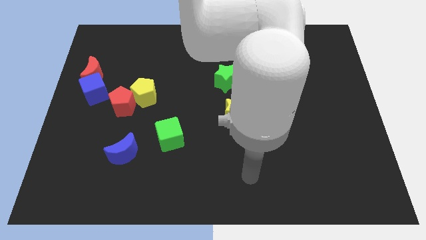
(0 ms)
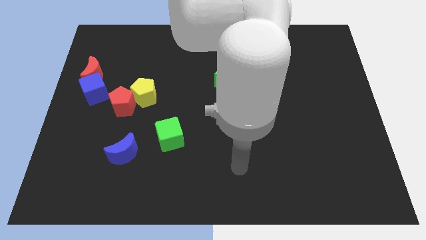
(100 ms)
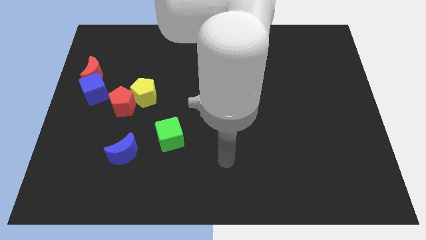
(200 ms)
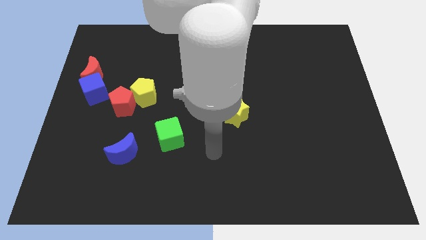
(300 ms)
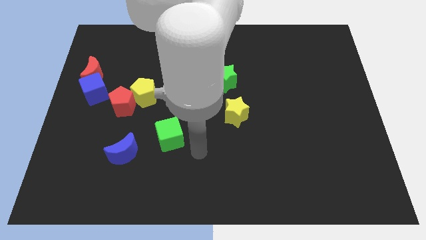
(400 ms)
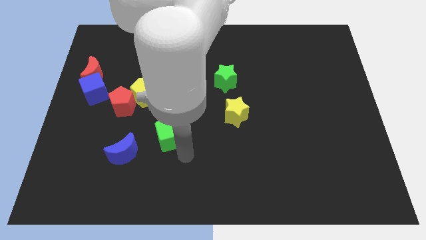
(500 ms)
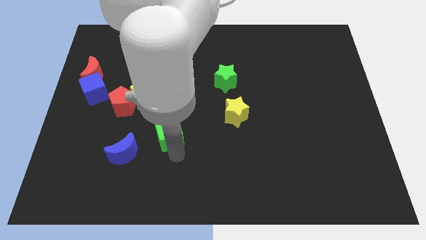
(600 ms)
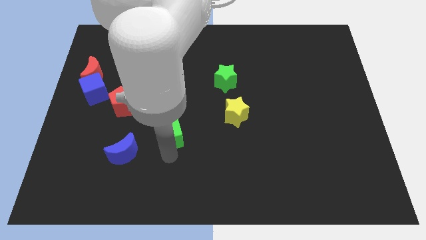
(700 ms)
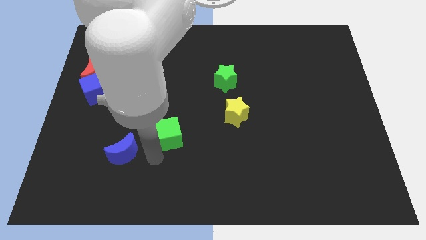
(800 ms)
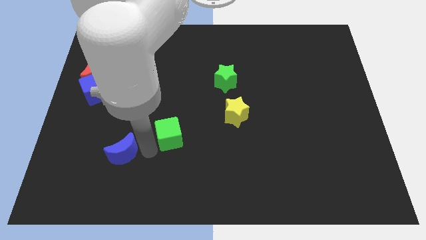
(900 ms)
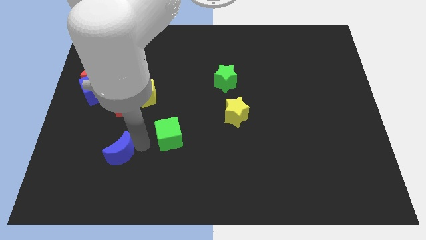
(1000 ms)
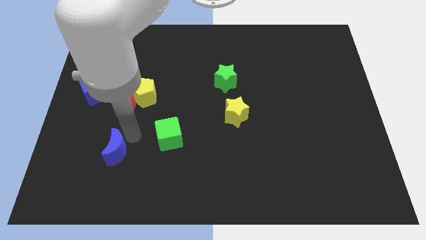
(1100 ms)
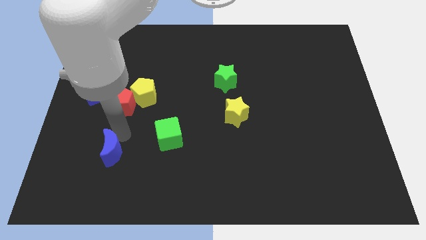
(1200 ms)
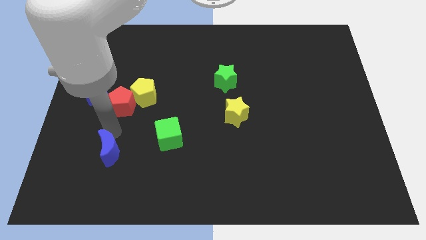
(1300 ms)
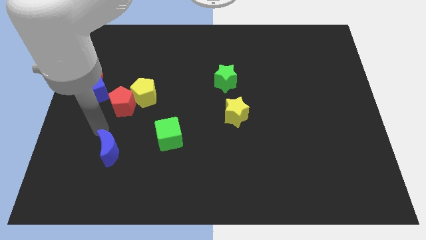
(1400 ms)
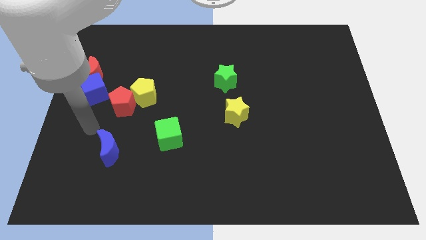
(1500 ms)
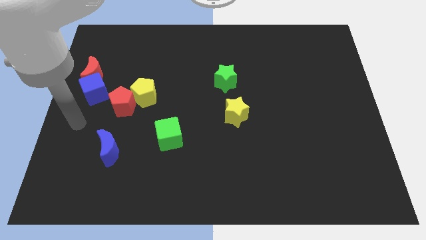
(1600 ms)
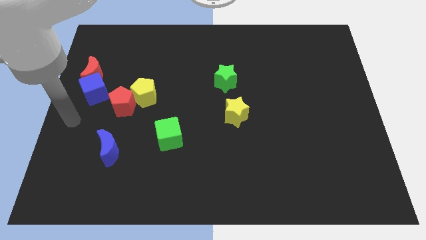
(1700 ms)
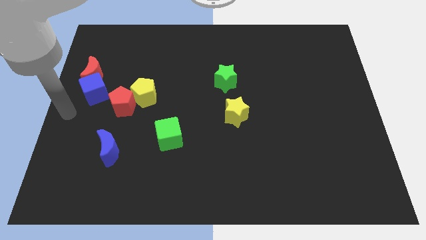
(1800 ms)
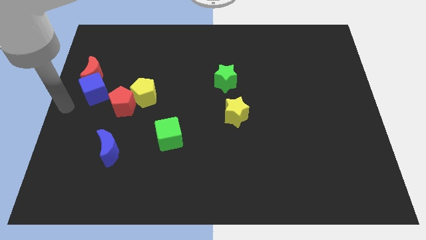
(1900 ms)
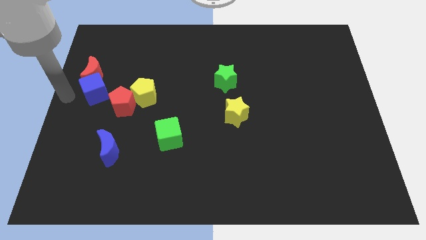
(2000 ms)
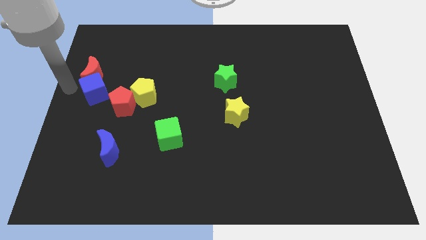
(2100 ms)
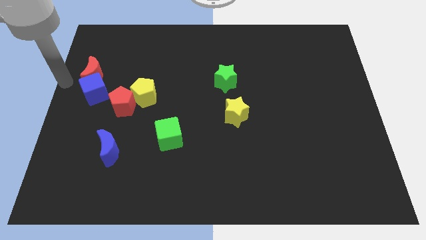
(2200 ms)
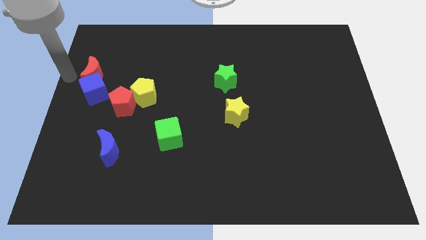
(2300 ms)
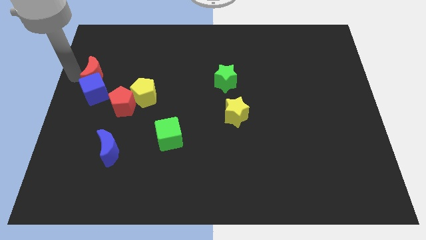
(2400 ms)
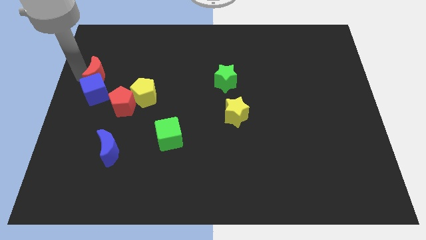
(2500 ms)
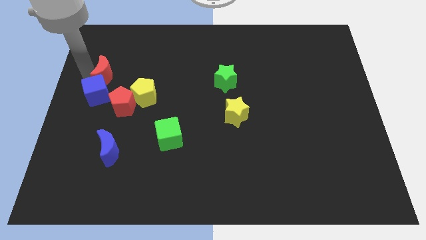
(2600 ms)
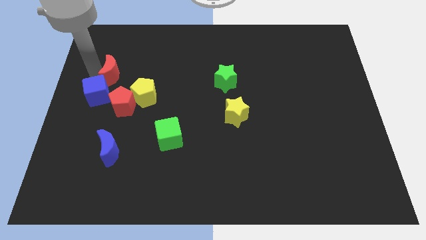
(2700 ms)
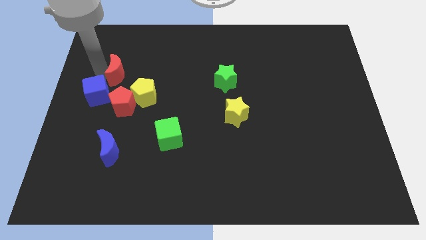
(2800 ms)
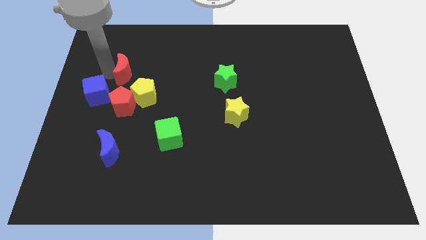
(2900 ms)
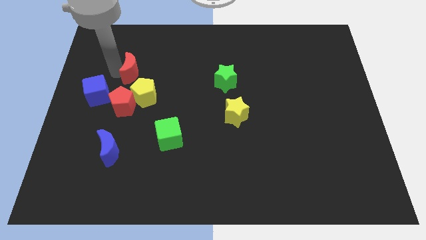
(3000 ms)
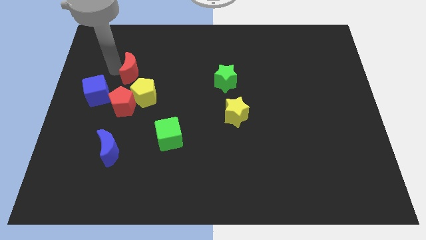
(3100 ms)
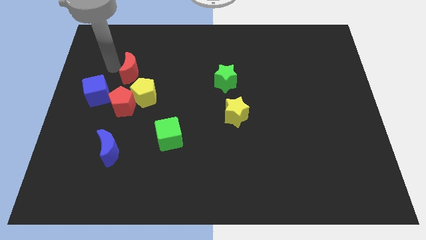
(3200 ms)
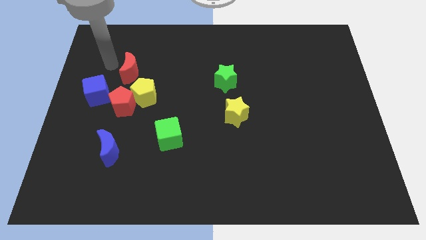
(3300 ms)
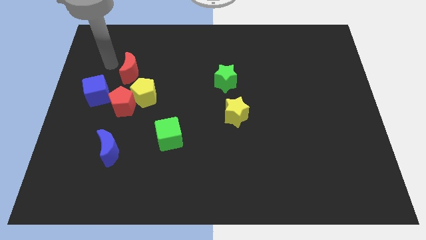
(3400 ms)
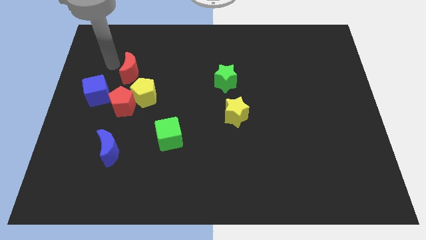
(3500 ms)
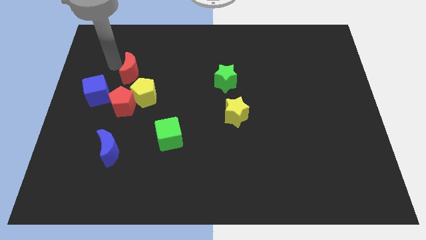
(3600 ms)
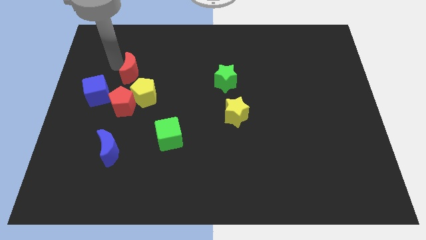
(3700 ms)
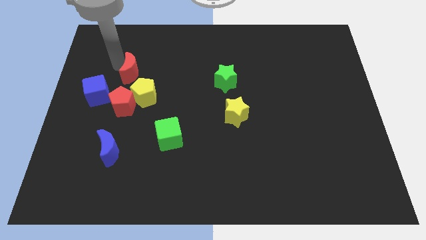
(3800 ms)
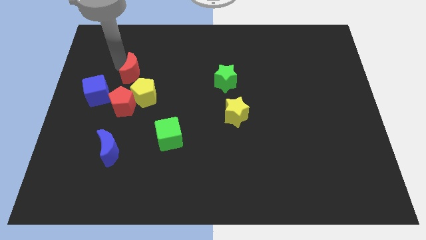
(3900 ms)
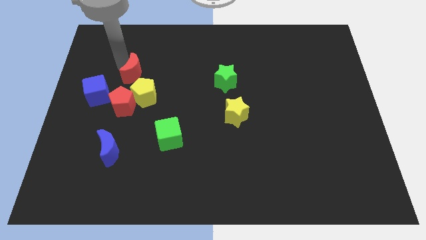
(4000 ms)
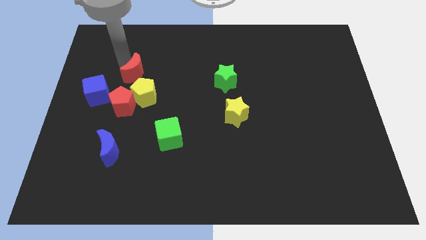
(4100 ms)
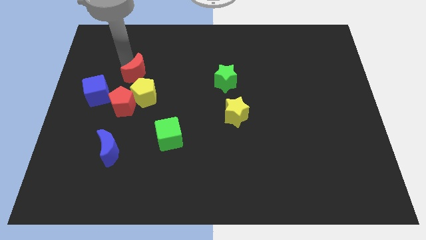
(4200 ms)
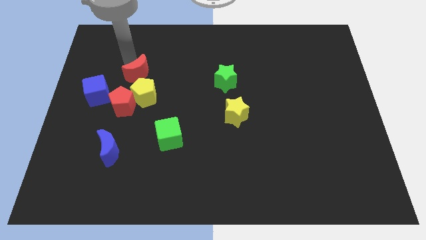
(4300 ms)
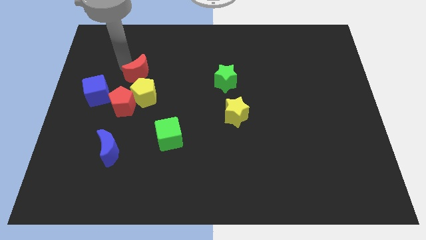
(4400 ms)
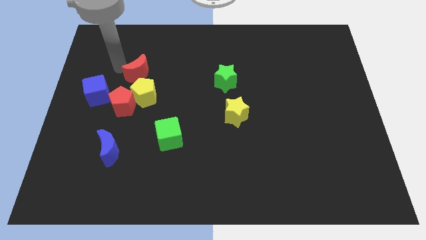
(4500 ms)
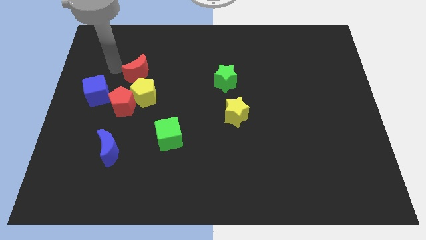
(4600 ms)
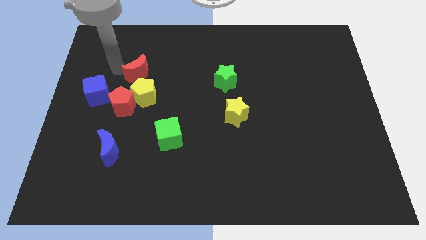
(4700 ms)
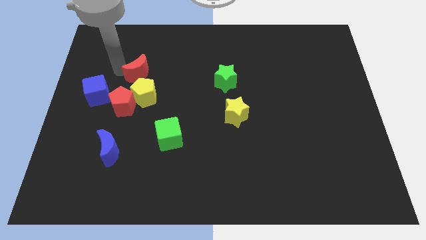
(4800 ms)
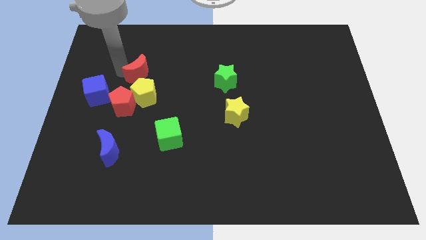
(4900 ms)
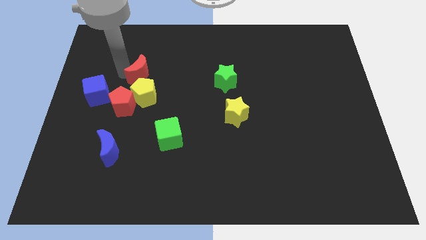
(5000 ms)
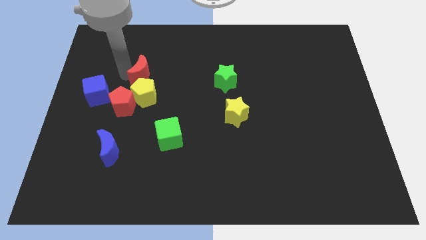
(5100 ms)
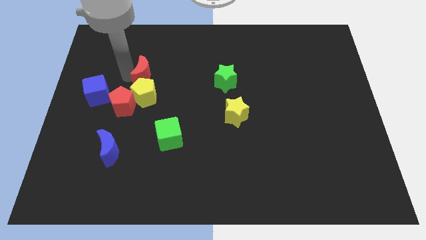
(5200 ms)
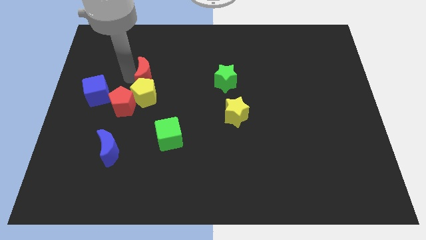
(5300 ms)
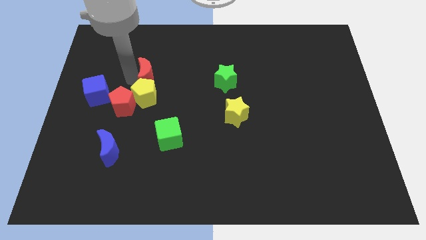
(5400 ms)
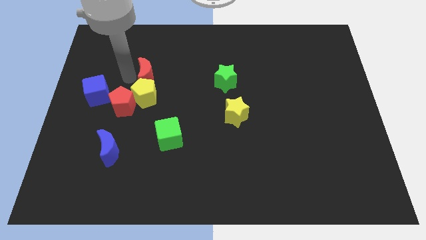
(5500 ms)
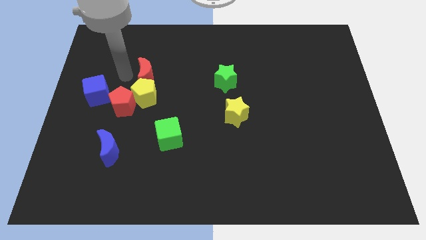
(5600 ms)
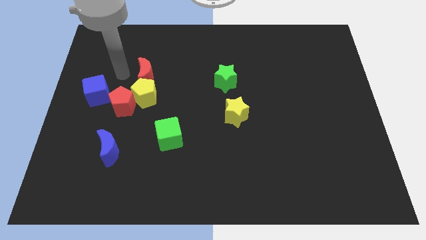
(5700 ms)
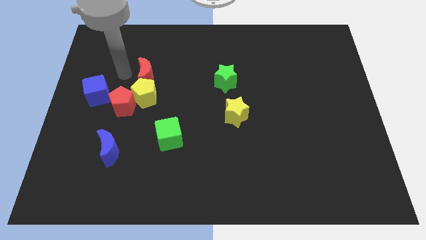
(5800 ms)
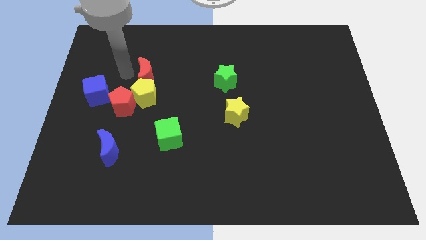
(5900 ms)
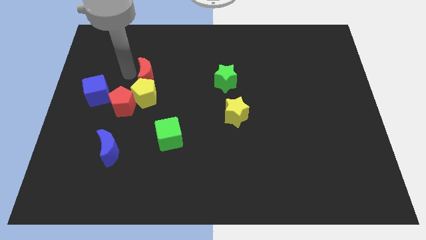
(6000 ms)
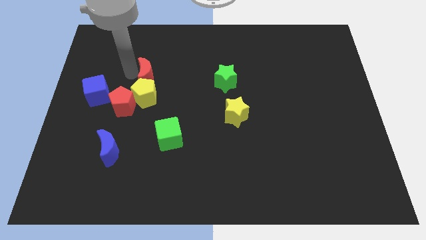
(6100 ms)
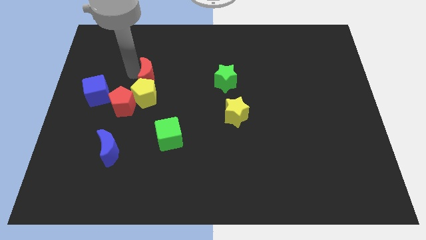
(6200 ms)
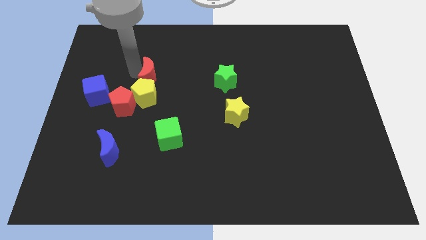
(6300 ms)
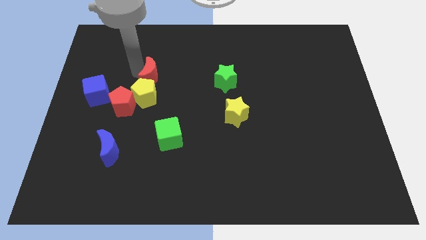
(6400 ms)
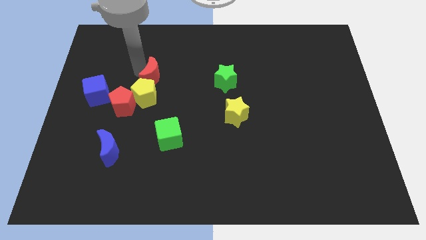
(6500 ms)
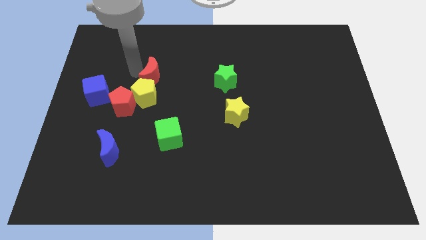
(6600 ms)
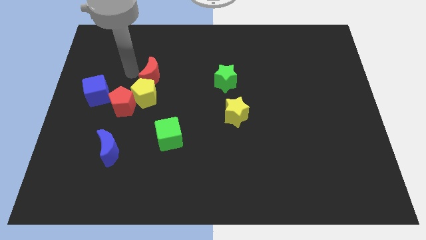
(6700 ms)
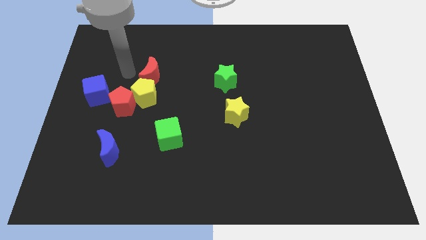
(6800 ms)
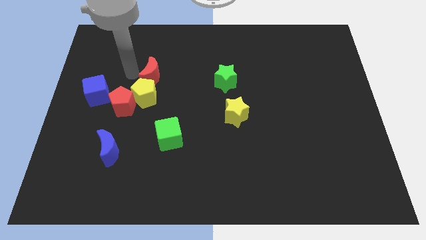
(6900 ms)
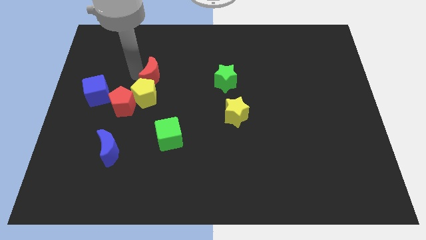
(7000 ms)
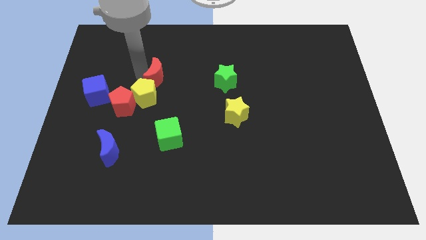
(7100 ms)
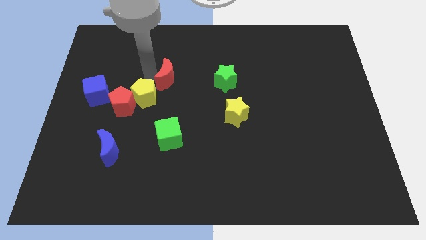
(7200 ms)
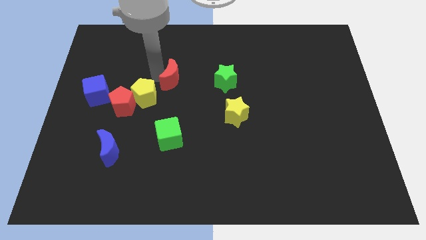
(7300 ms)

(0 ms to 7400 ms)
push the red moon to the center
